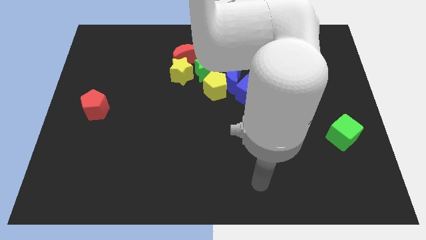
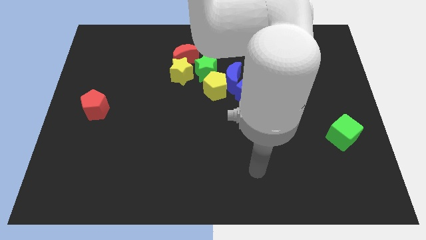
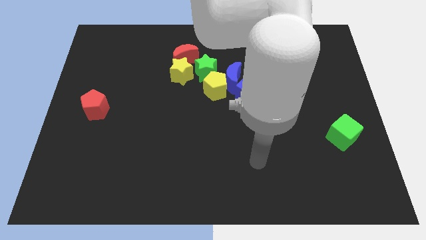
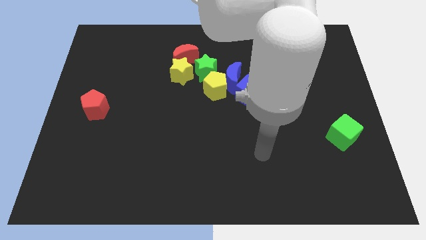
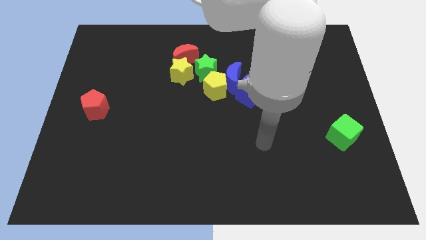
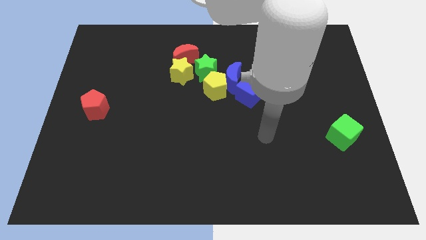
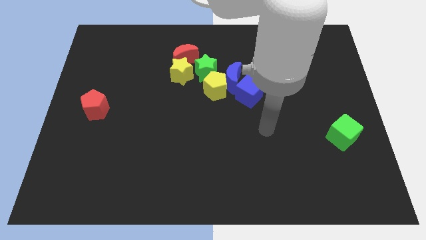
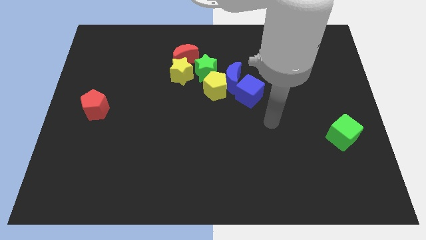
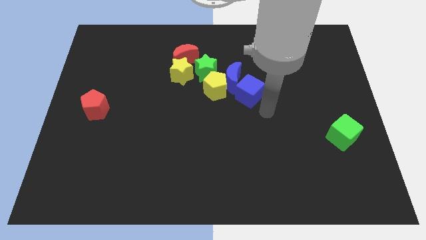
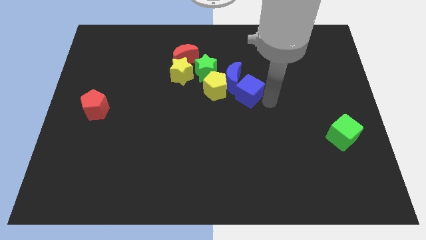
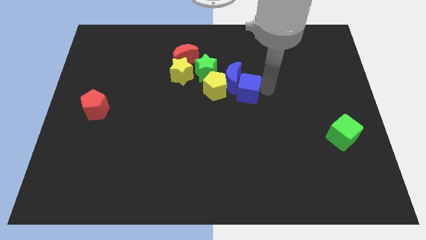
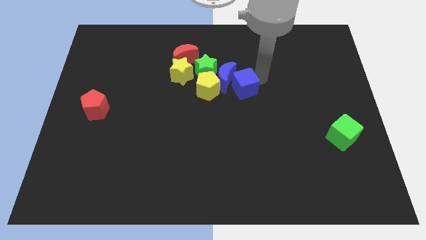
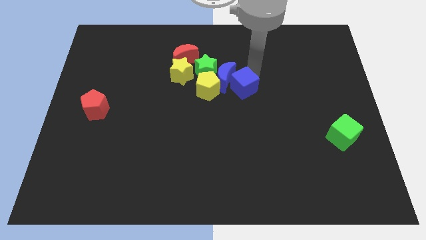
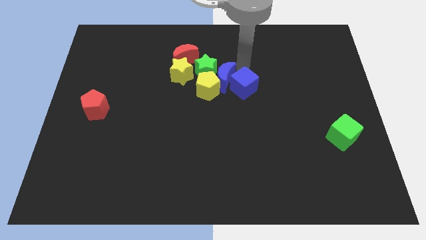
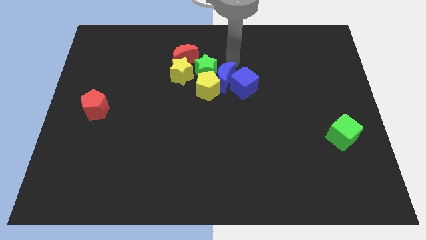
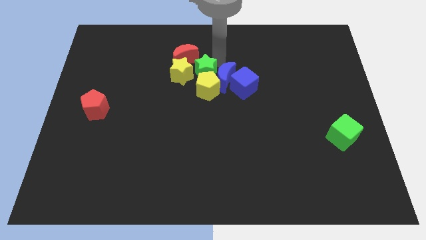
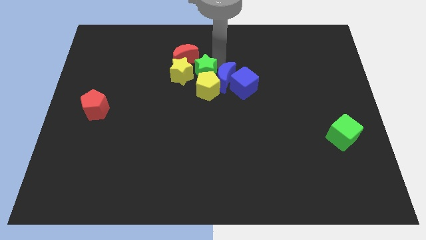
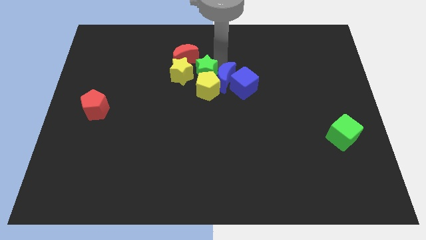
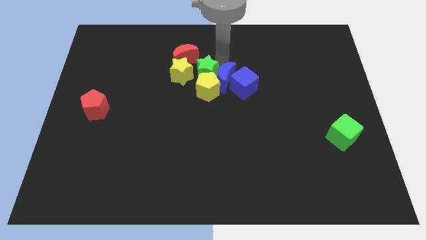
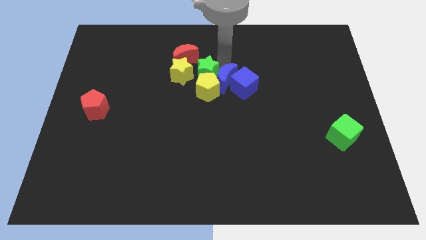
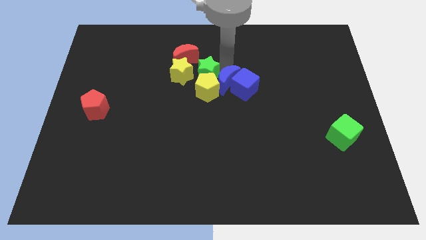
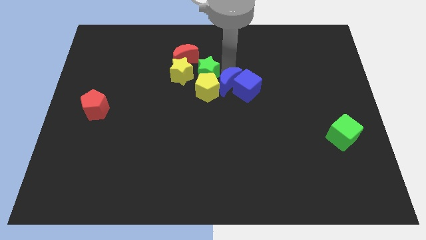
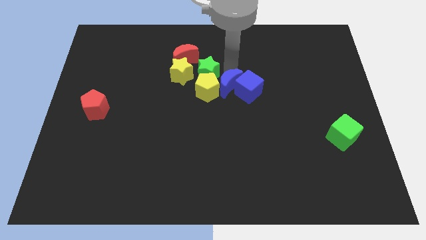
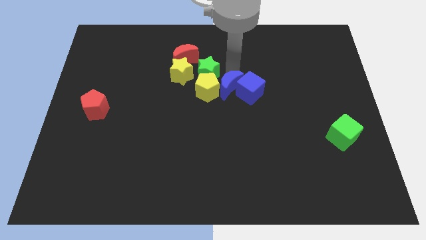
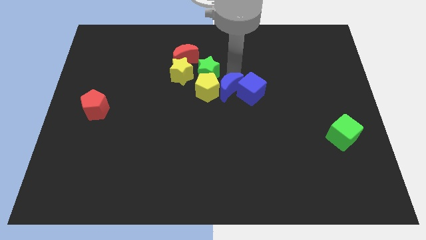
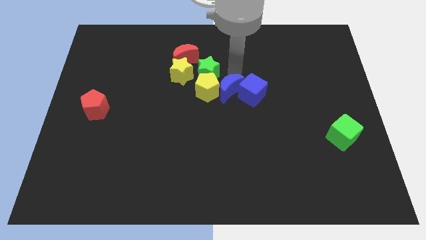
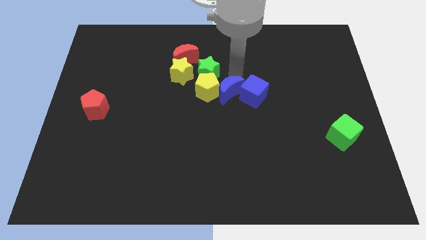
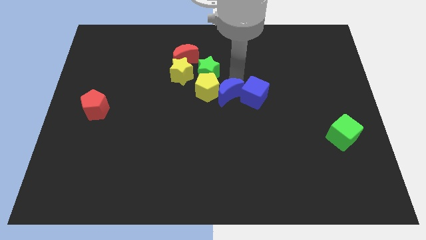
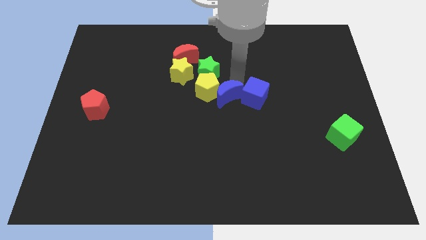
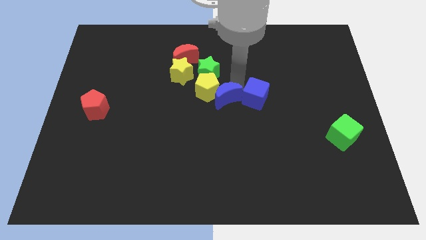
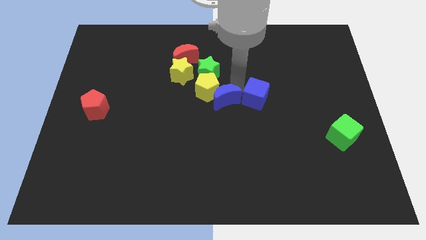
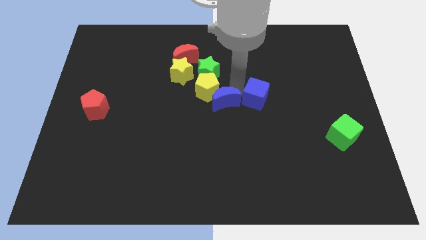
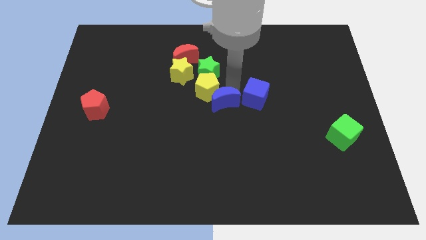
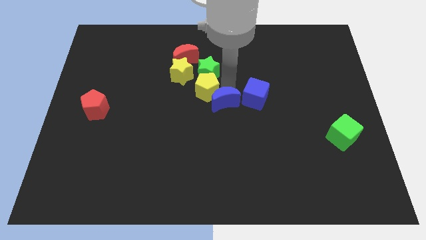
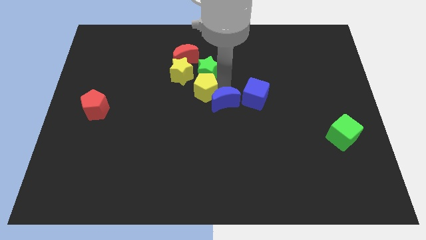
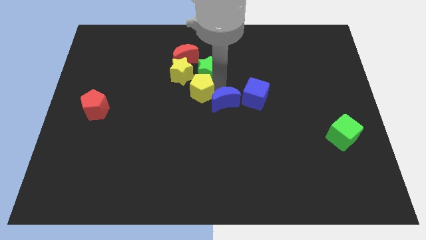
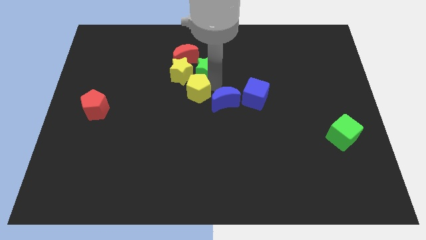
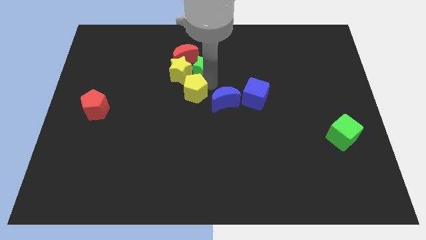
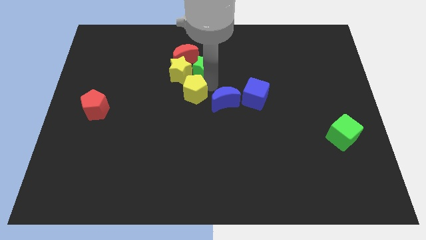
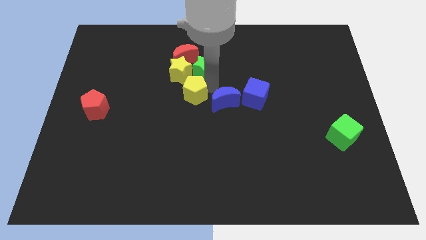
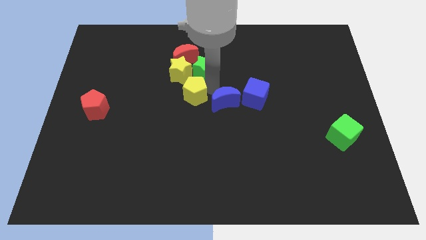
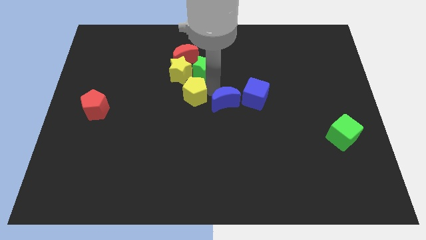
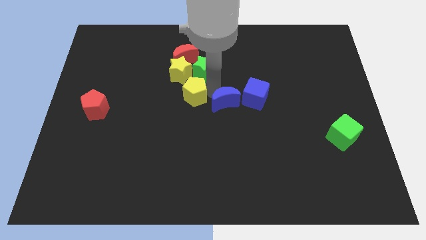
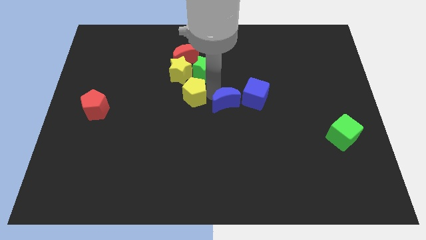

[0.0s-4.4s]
push the blue moon a little downwards

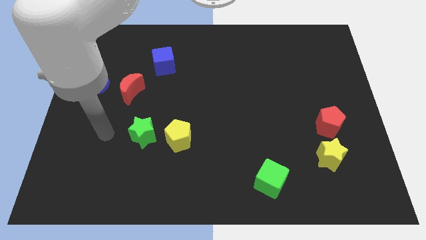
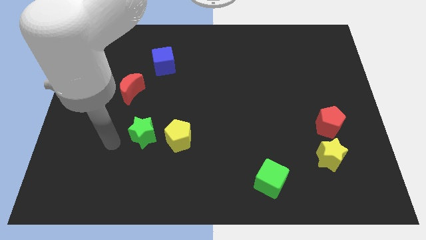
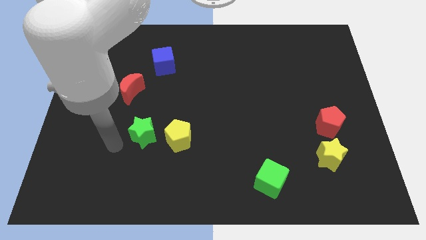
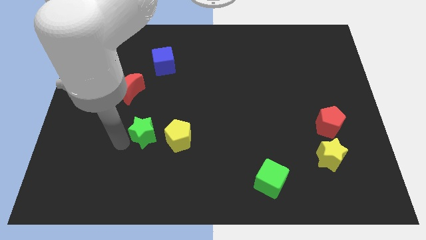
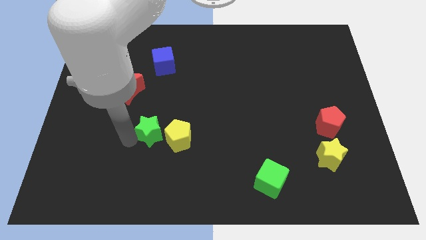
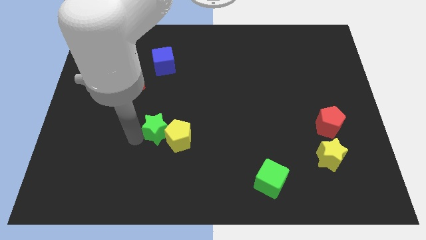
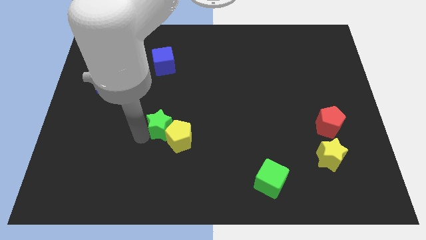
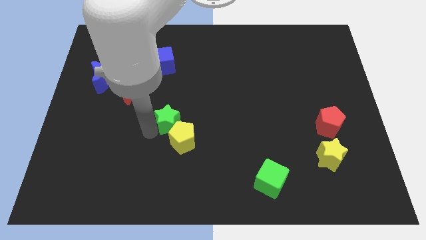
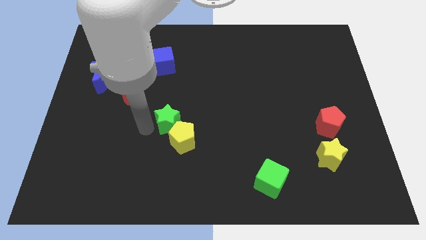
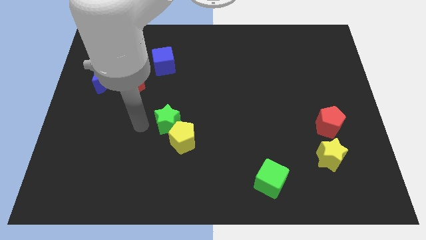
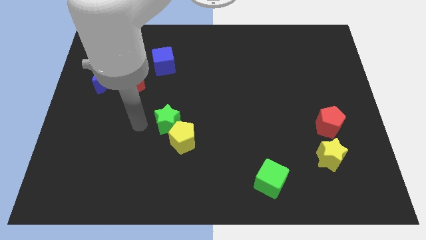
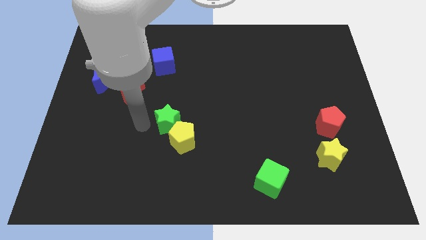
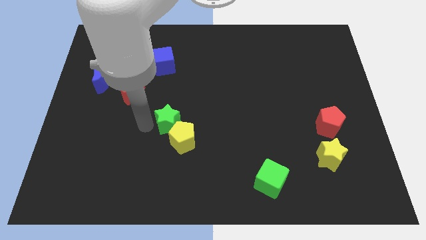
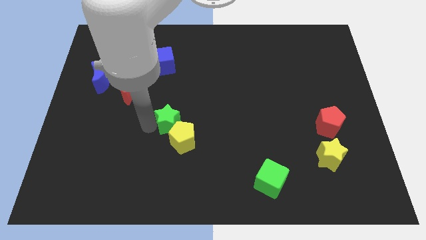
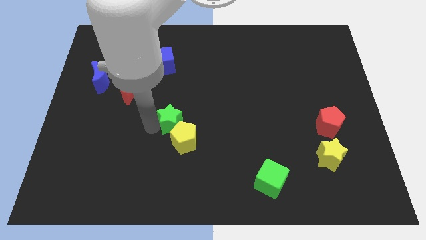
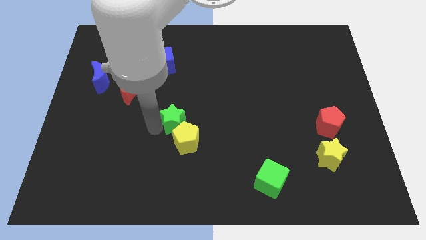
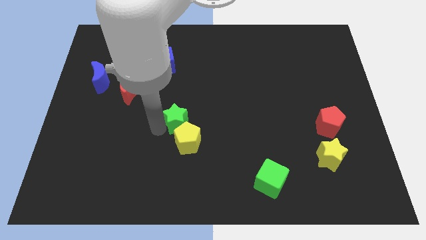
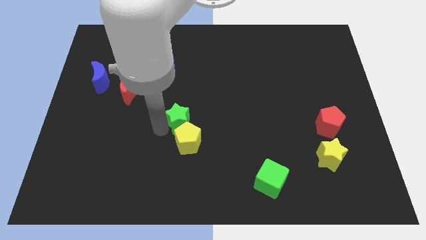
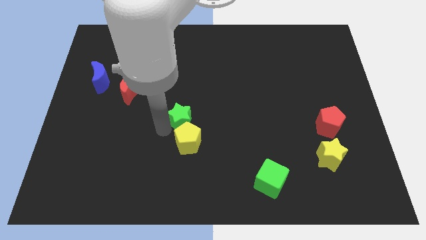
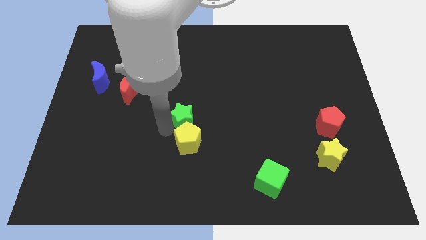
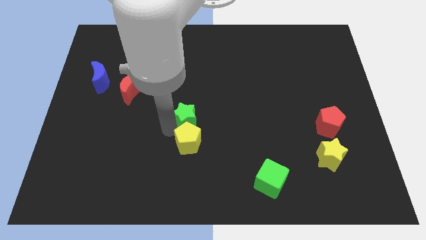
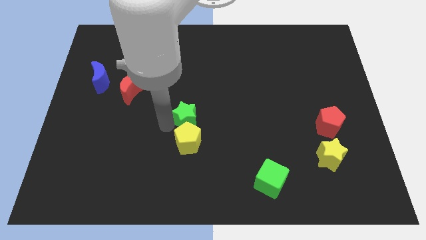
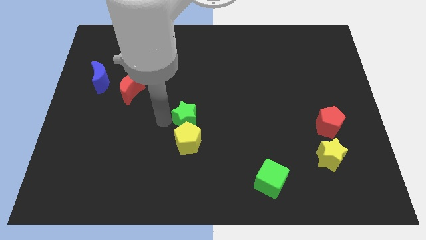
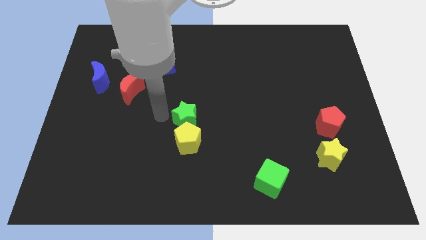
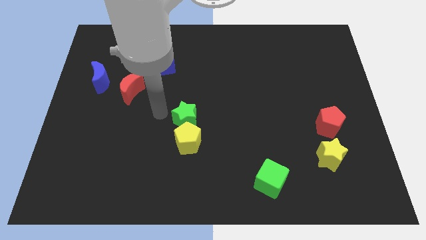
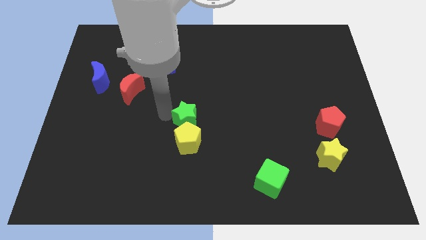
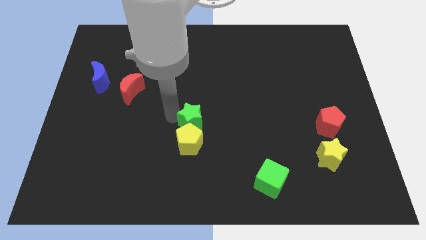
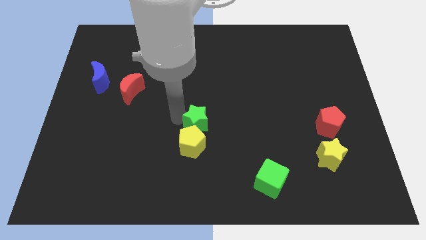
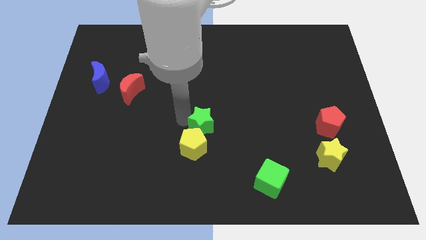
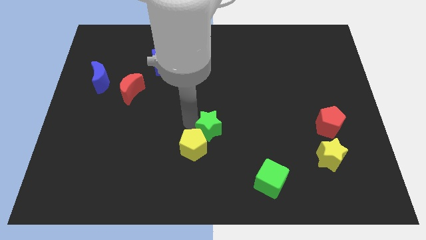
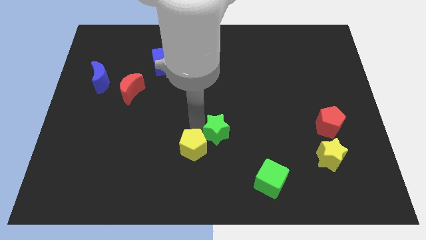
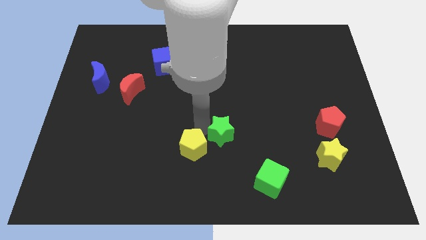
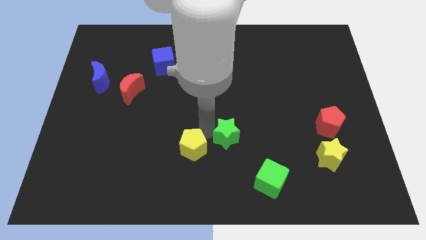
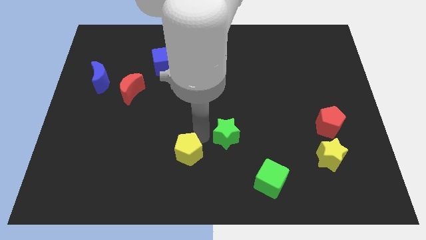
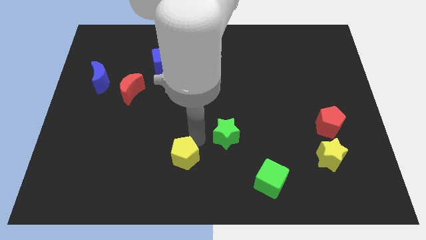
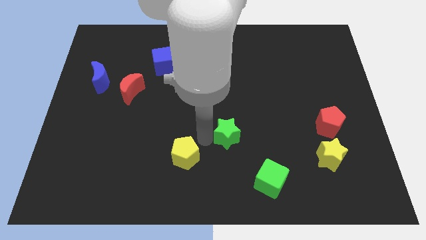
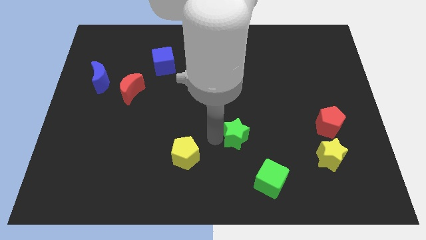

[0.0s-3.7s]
push the green star right
